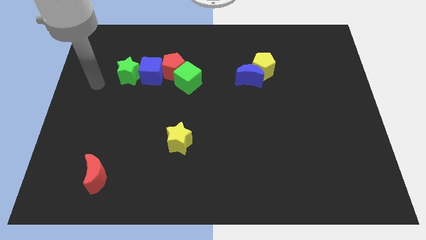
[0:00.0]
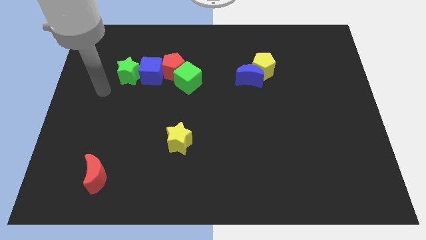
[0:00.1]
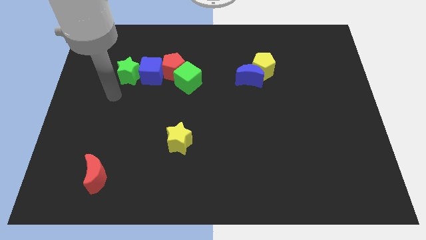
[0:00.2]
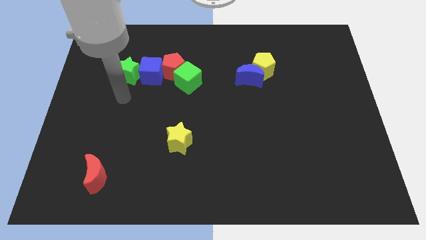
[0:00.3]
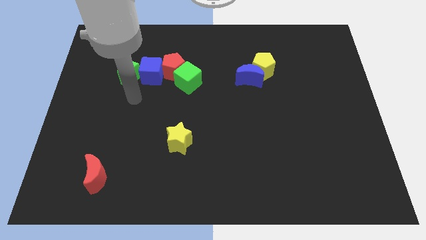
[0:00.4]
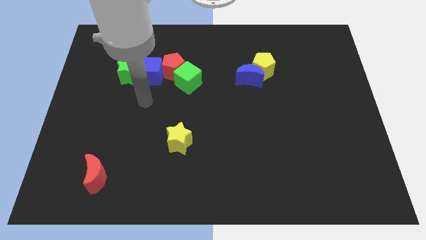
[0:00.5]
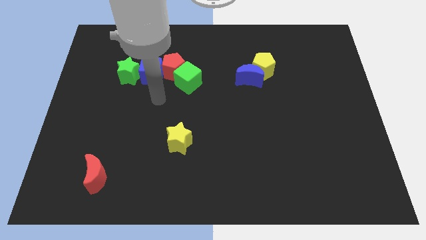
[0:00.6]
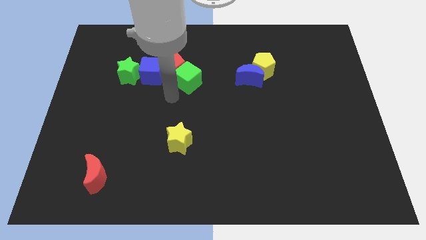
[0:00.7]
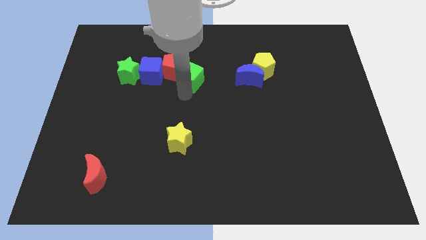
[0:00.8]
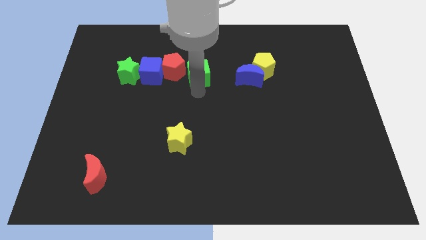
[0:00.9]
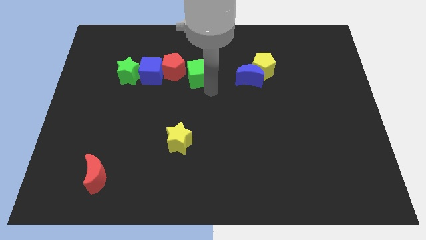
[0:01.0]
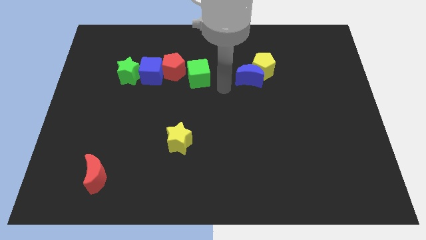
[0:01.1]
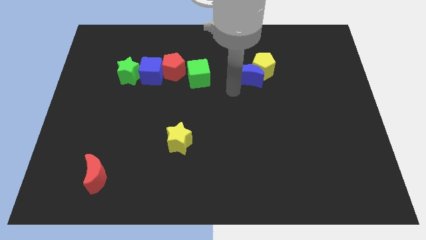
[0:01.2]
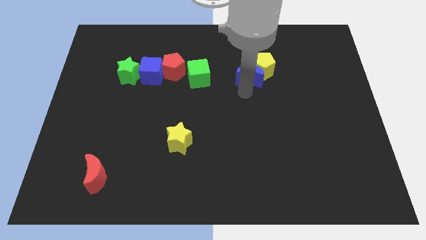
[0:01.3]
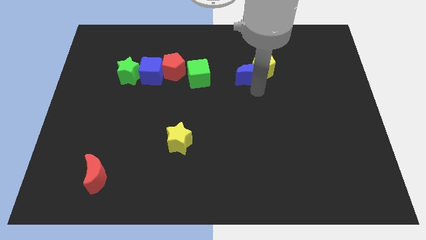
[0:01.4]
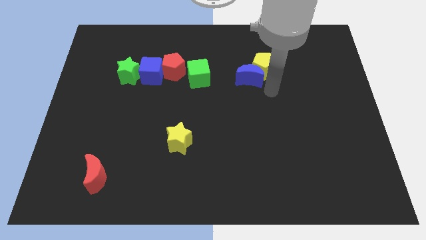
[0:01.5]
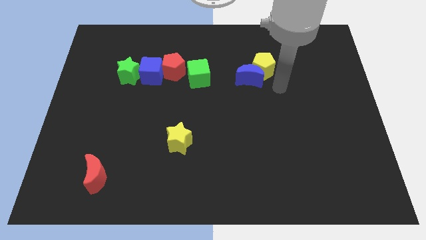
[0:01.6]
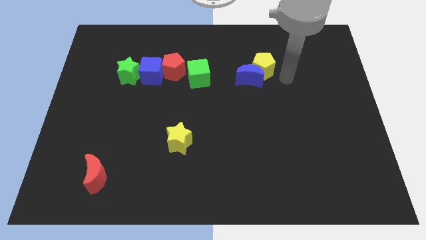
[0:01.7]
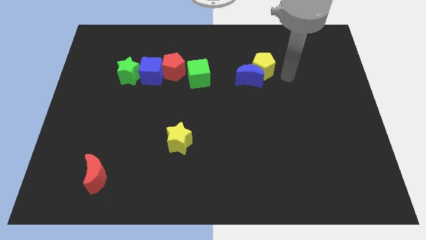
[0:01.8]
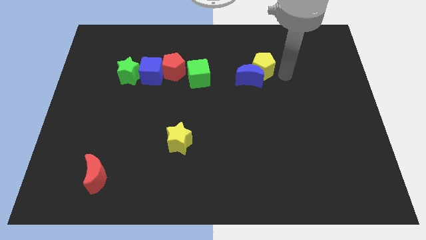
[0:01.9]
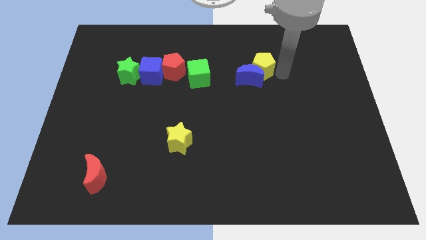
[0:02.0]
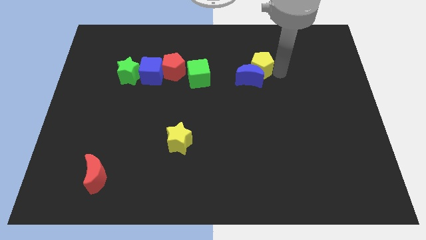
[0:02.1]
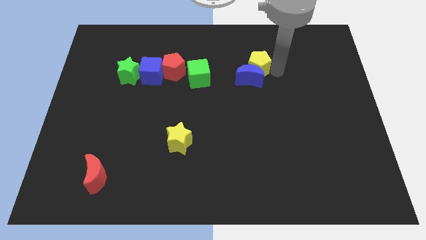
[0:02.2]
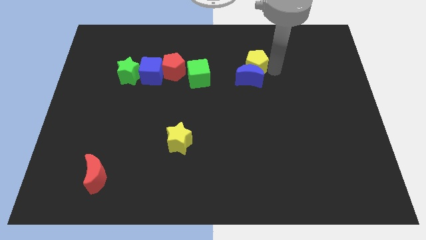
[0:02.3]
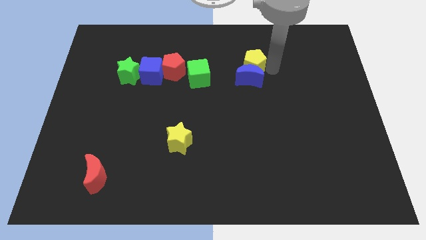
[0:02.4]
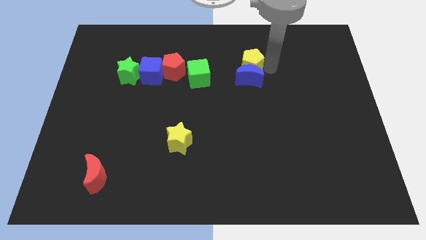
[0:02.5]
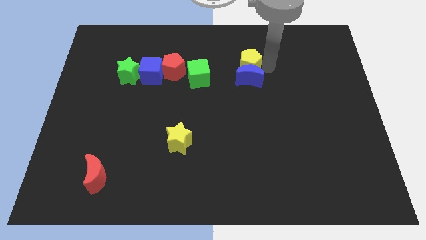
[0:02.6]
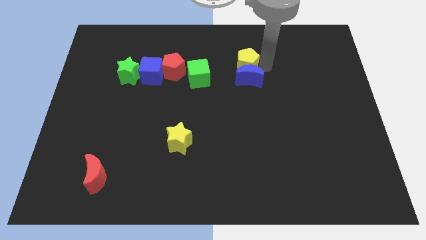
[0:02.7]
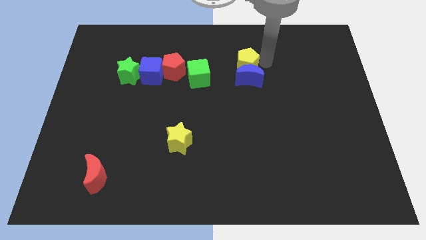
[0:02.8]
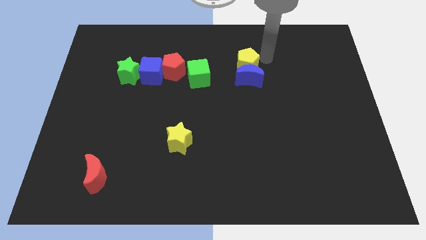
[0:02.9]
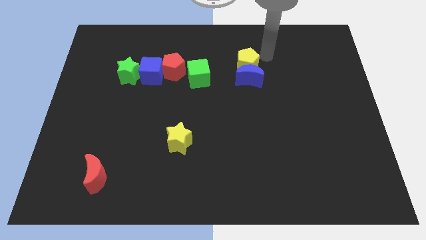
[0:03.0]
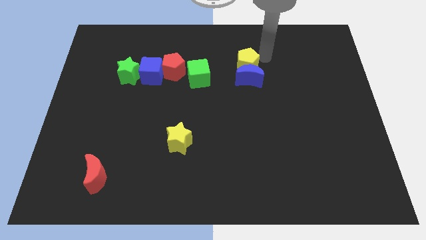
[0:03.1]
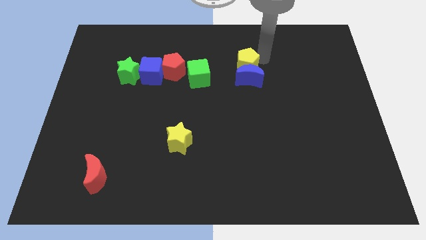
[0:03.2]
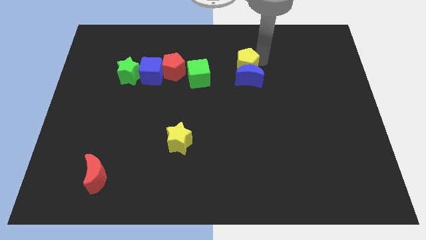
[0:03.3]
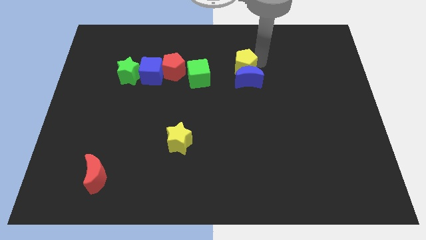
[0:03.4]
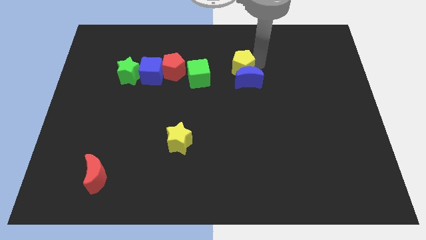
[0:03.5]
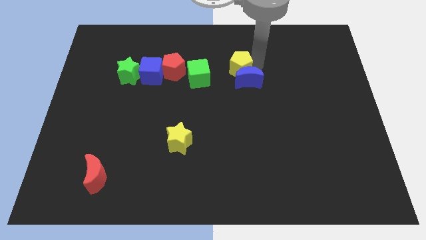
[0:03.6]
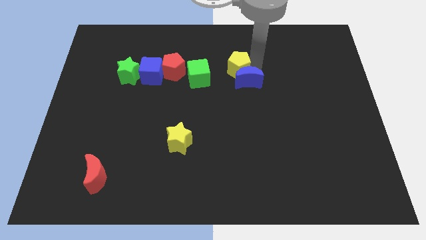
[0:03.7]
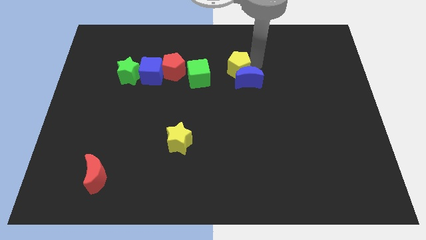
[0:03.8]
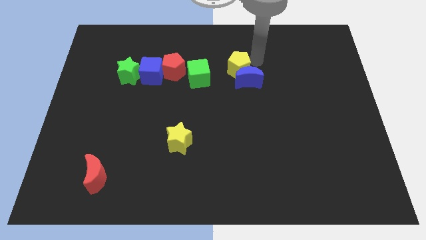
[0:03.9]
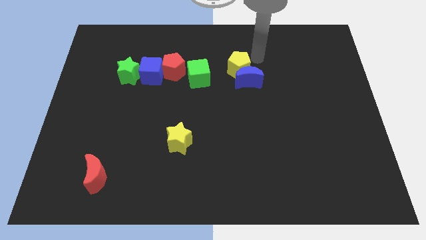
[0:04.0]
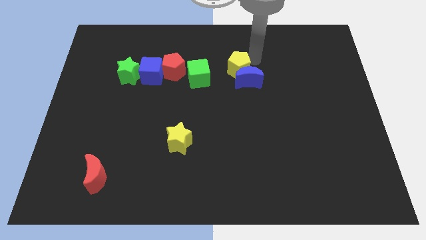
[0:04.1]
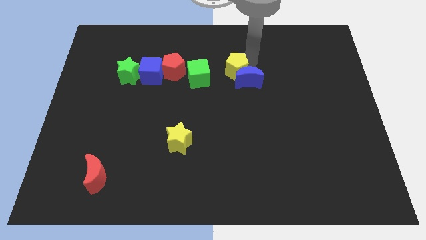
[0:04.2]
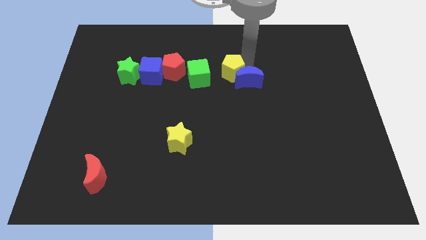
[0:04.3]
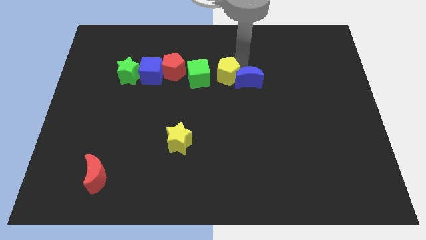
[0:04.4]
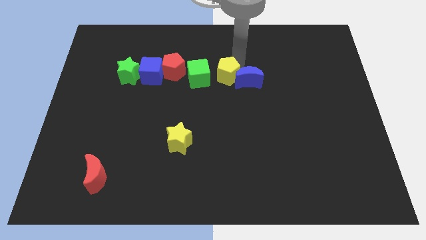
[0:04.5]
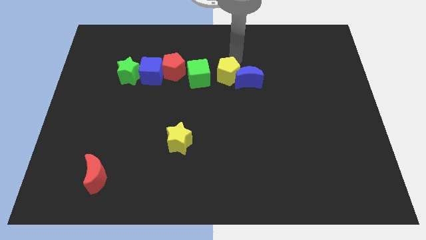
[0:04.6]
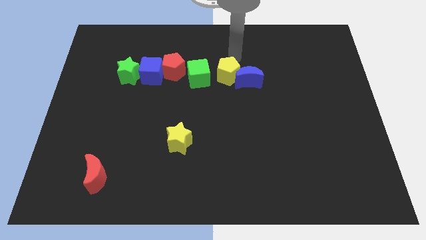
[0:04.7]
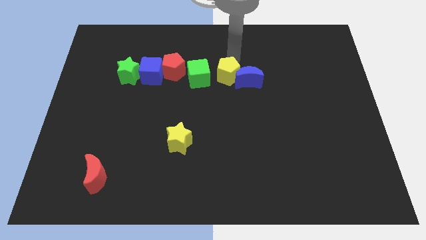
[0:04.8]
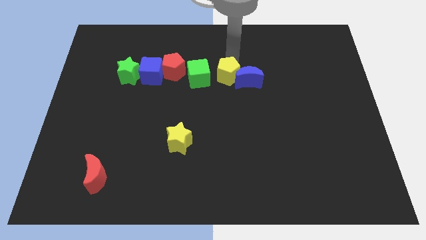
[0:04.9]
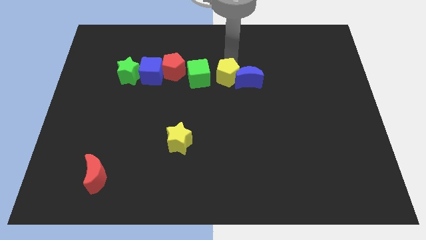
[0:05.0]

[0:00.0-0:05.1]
push the yellow pentagon downwards and to the left a bit

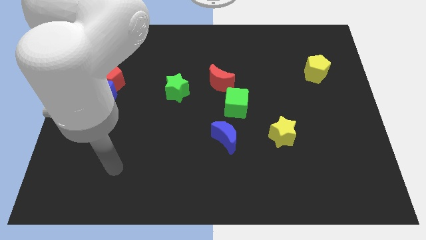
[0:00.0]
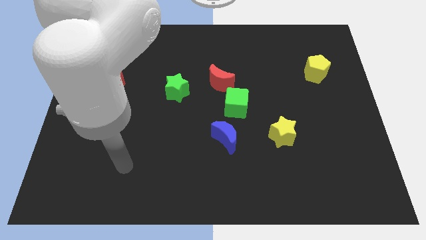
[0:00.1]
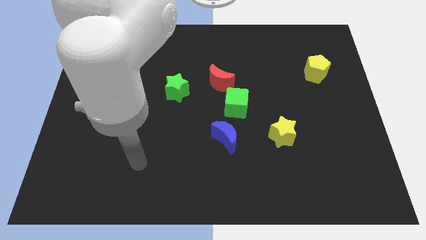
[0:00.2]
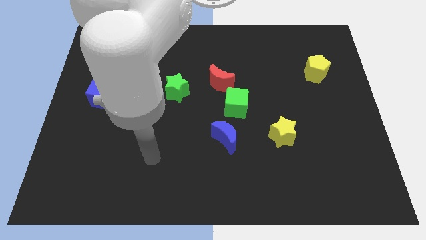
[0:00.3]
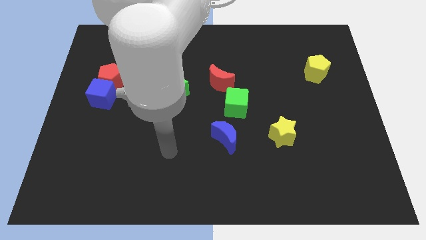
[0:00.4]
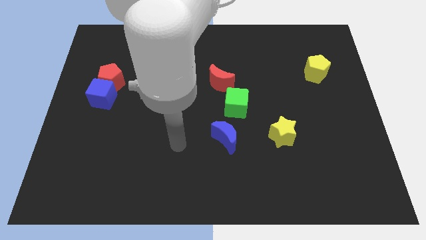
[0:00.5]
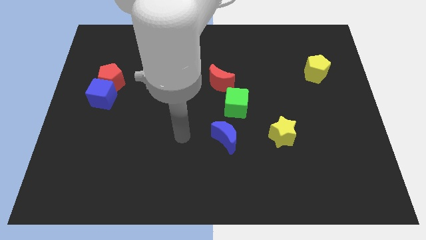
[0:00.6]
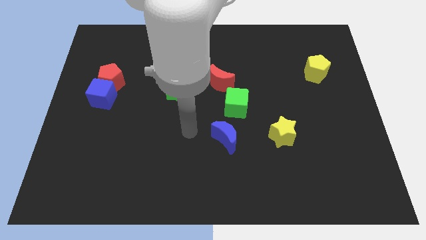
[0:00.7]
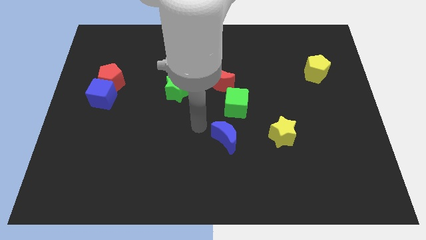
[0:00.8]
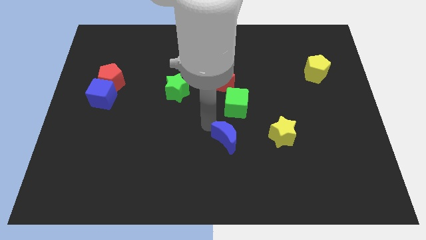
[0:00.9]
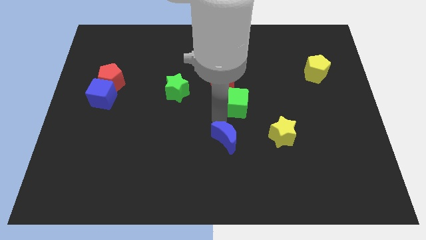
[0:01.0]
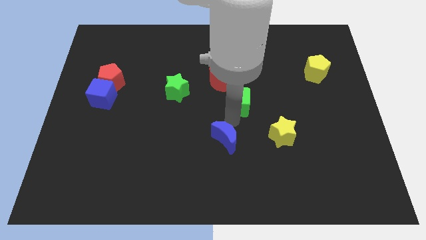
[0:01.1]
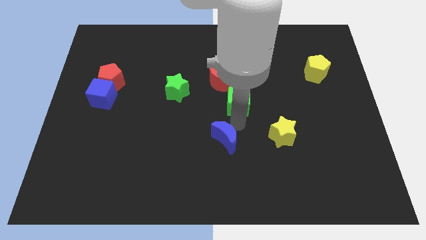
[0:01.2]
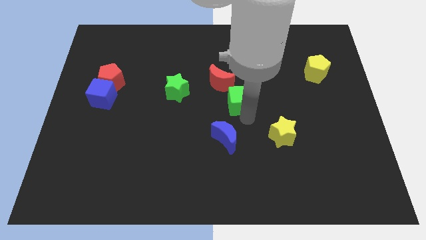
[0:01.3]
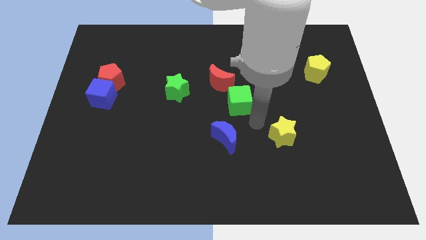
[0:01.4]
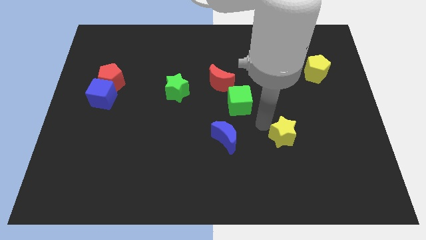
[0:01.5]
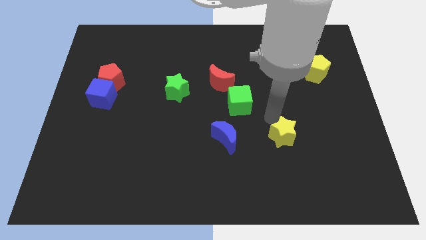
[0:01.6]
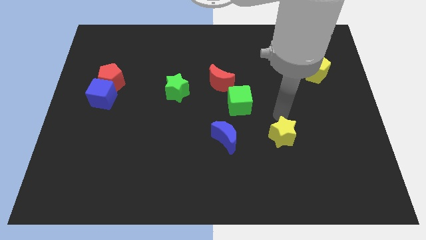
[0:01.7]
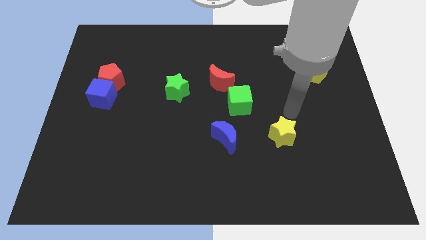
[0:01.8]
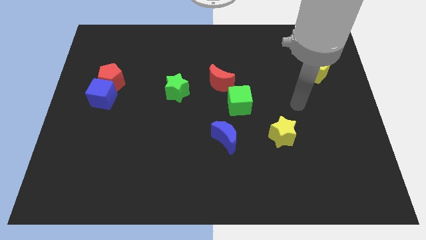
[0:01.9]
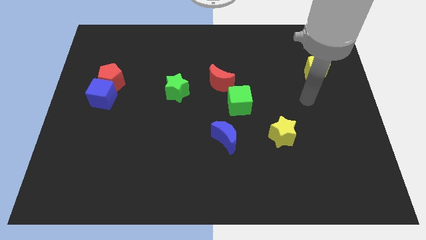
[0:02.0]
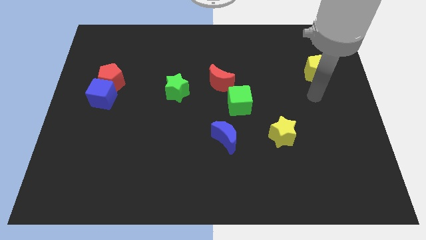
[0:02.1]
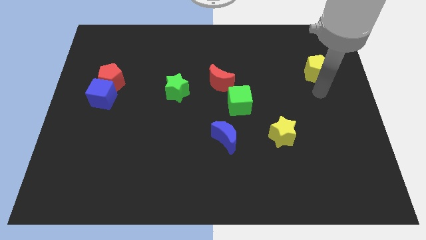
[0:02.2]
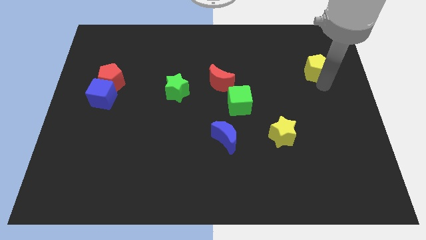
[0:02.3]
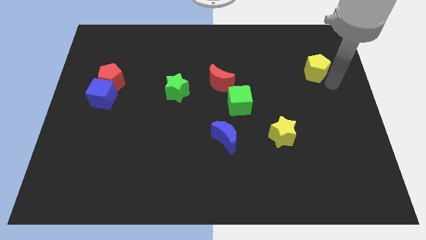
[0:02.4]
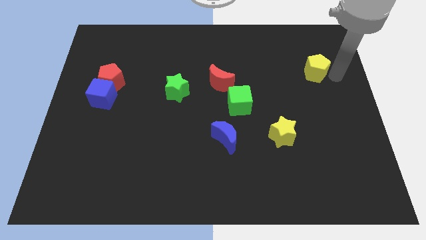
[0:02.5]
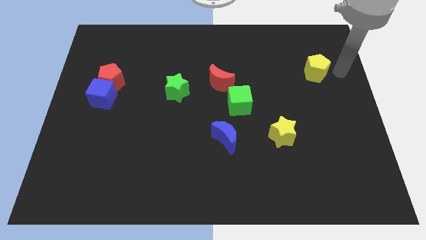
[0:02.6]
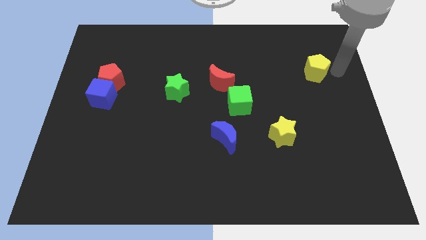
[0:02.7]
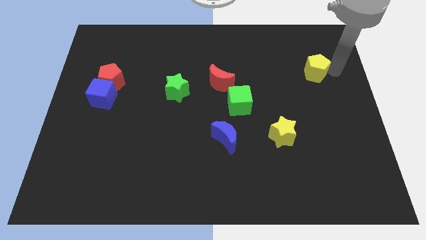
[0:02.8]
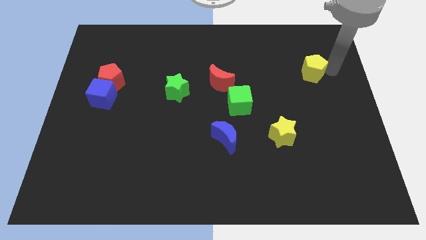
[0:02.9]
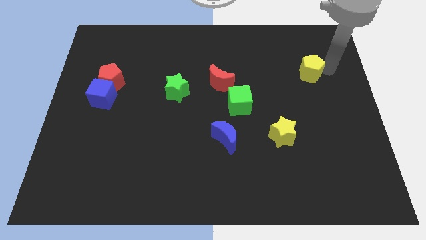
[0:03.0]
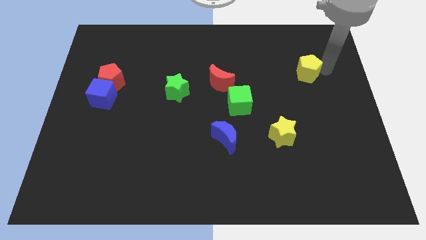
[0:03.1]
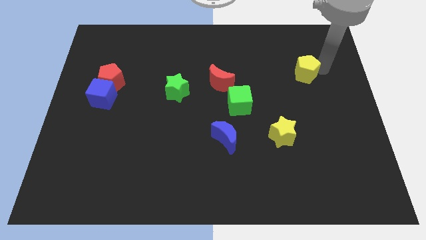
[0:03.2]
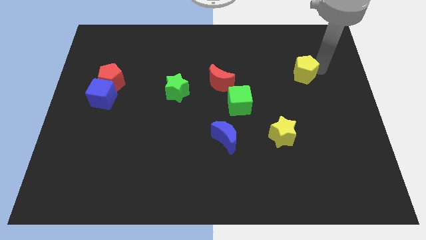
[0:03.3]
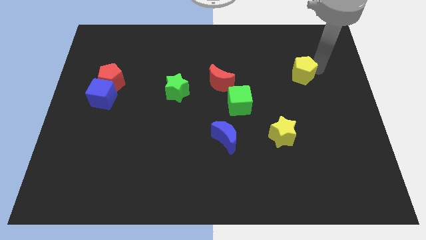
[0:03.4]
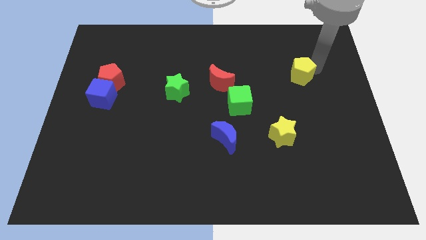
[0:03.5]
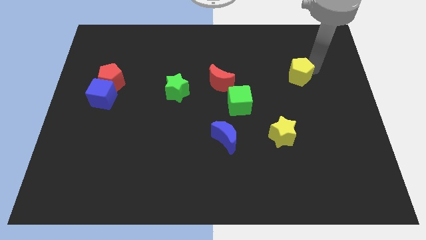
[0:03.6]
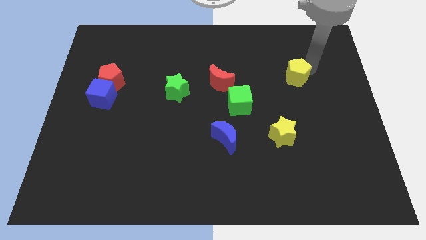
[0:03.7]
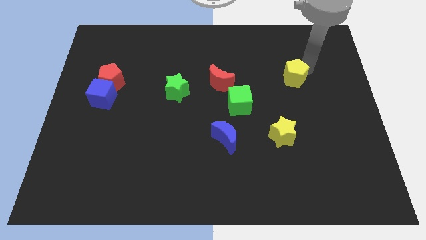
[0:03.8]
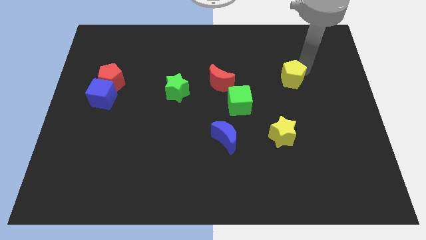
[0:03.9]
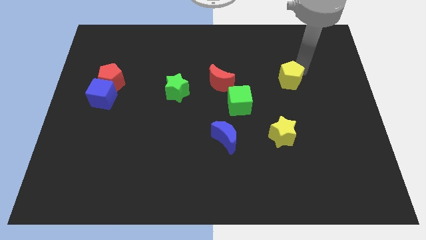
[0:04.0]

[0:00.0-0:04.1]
slightly push the yellow pentagon to the left
